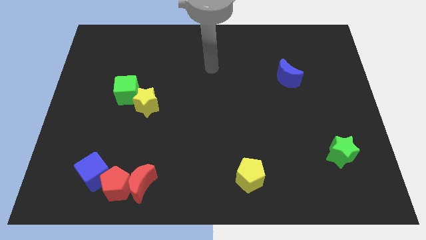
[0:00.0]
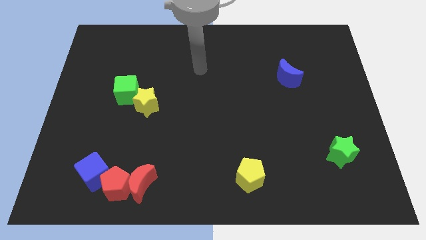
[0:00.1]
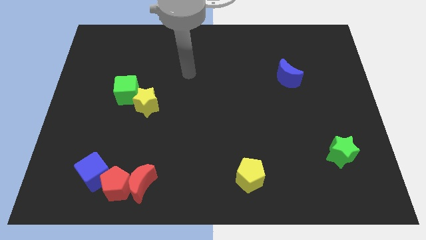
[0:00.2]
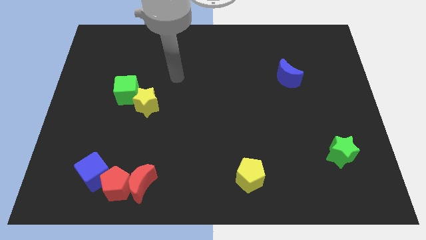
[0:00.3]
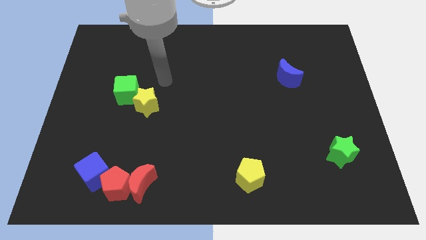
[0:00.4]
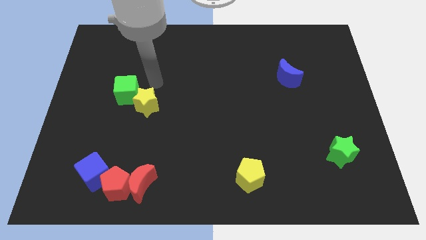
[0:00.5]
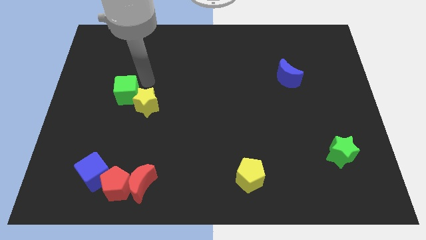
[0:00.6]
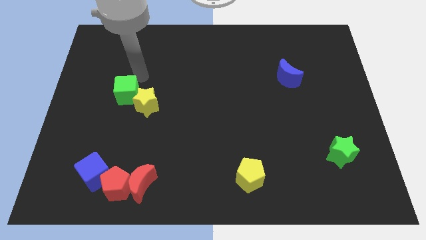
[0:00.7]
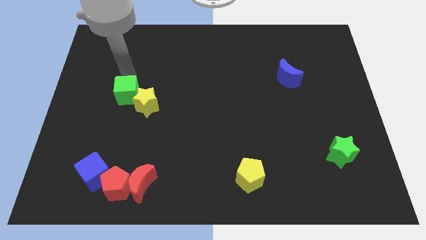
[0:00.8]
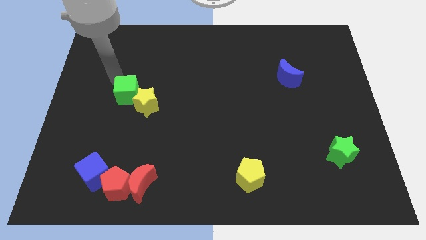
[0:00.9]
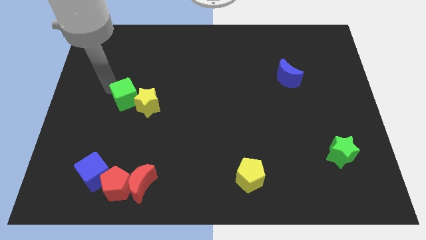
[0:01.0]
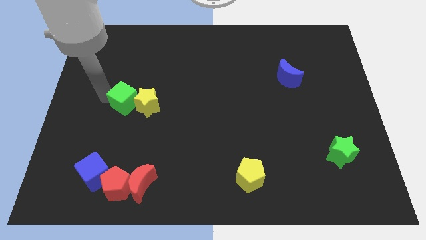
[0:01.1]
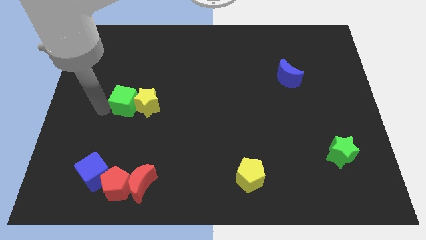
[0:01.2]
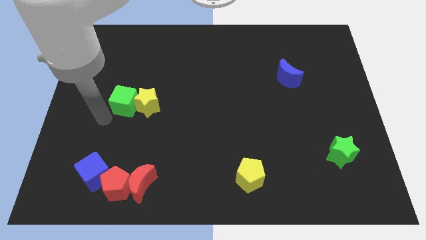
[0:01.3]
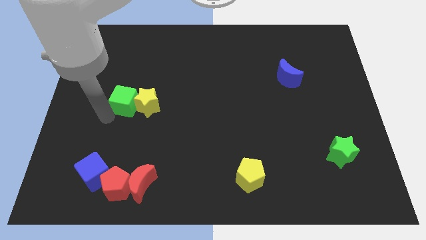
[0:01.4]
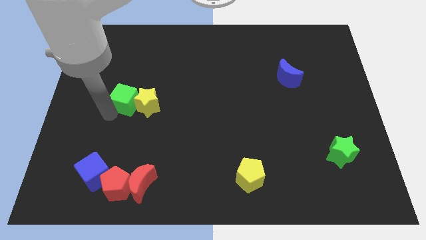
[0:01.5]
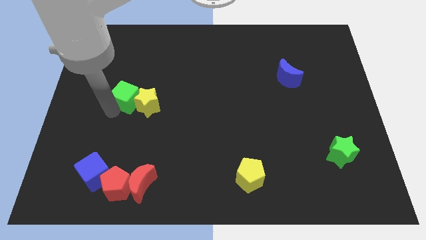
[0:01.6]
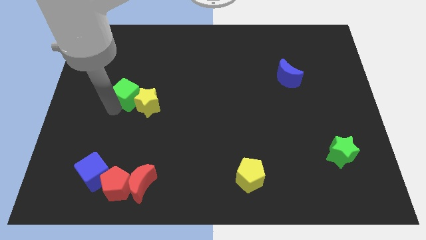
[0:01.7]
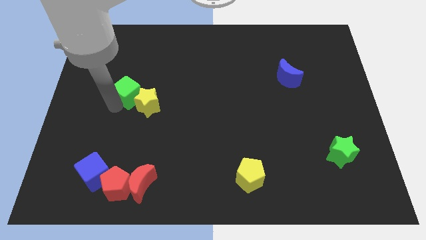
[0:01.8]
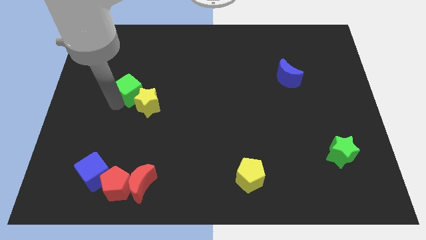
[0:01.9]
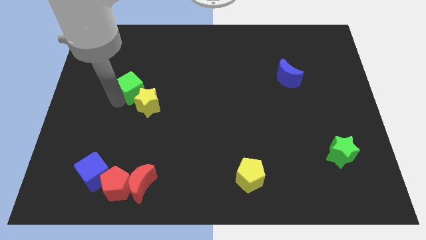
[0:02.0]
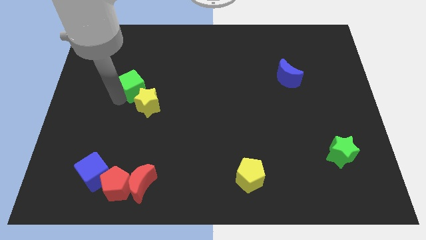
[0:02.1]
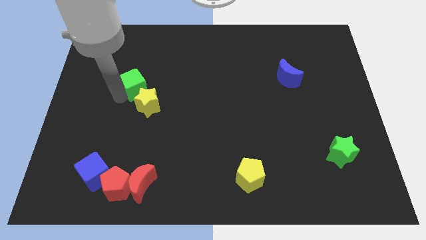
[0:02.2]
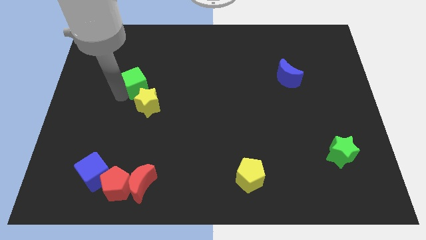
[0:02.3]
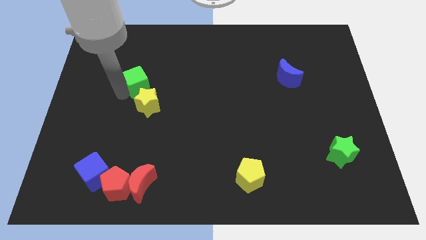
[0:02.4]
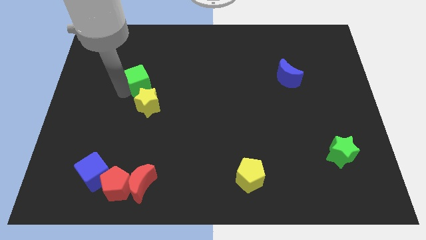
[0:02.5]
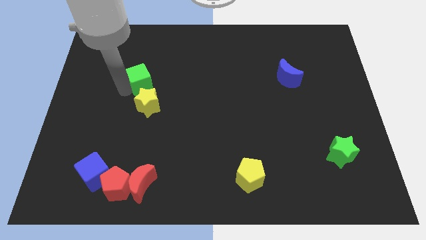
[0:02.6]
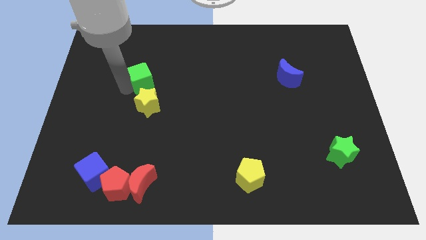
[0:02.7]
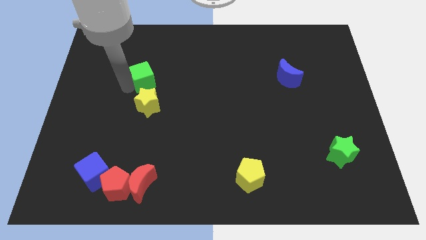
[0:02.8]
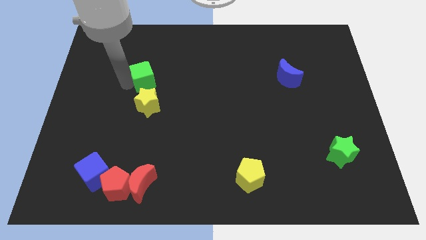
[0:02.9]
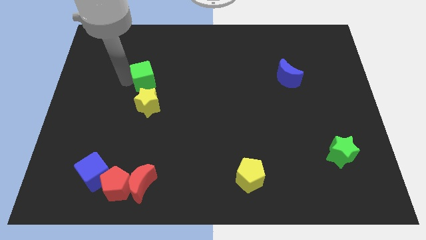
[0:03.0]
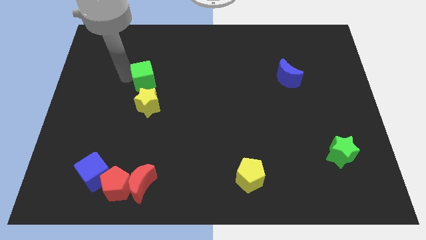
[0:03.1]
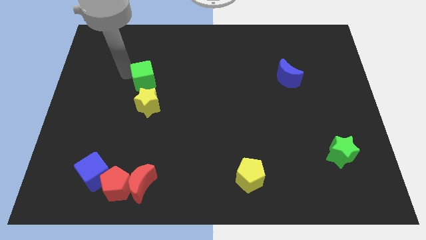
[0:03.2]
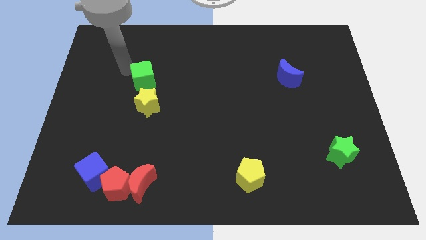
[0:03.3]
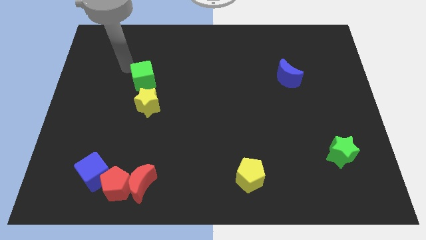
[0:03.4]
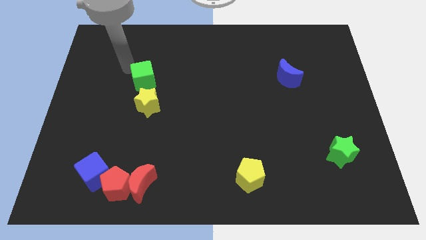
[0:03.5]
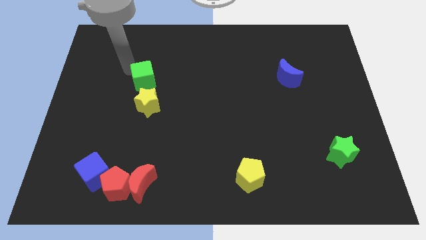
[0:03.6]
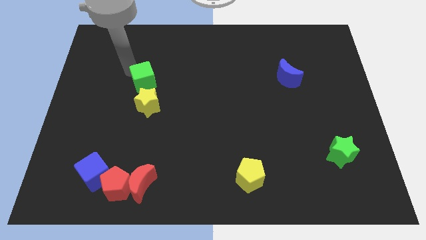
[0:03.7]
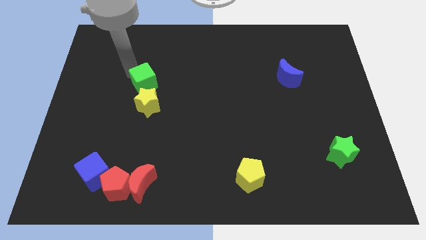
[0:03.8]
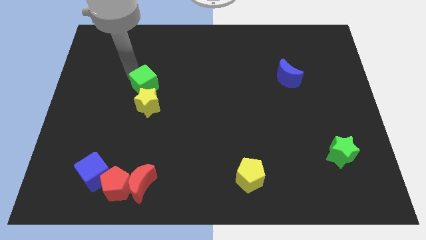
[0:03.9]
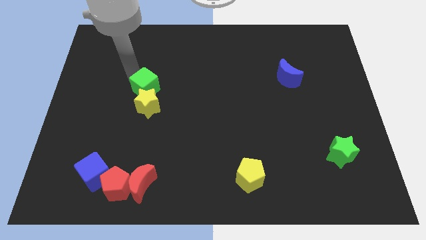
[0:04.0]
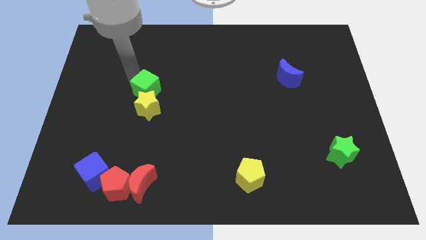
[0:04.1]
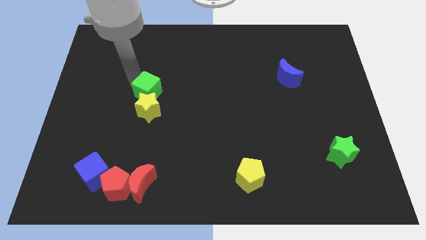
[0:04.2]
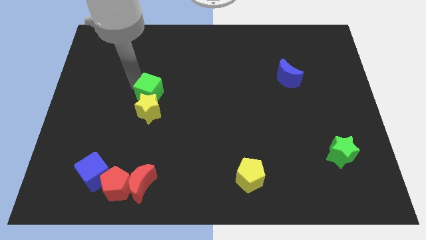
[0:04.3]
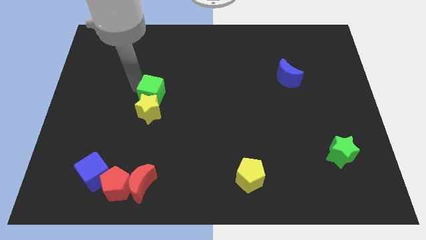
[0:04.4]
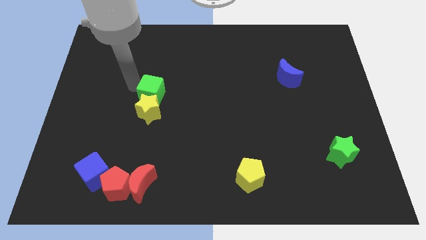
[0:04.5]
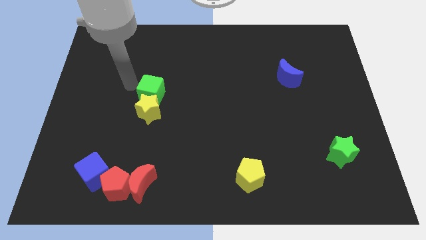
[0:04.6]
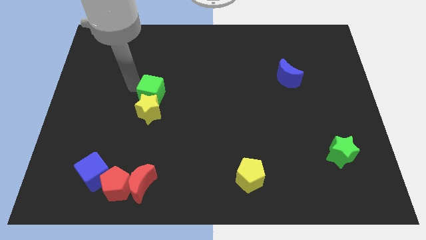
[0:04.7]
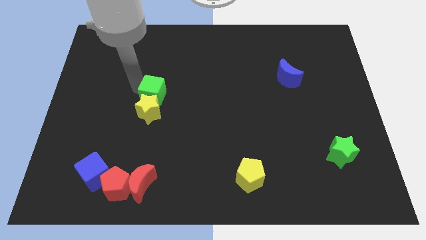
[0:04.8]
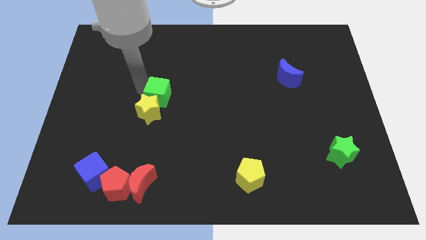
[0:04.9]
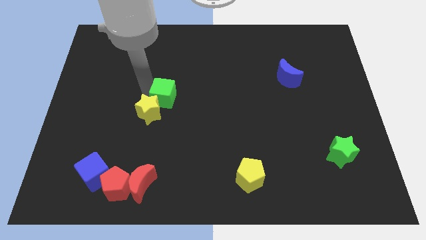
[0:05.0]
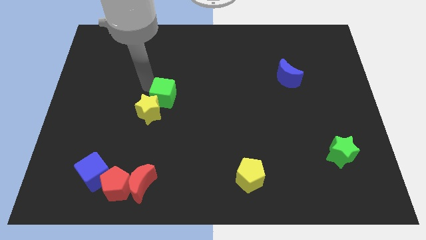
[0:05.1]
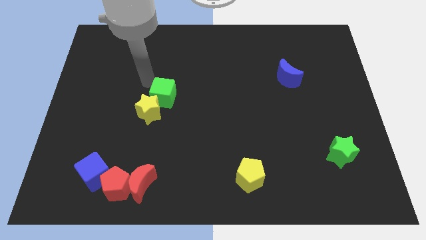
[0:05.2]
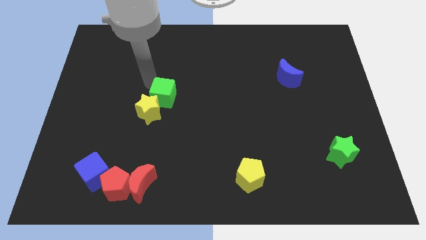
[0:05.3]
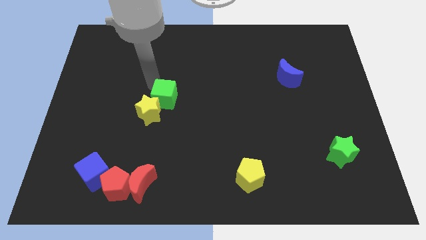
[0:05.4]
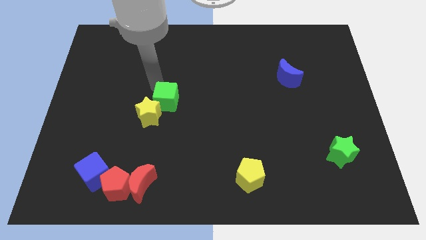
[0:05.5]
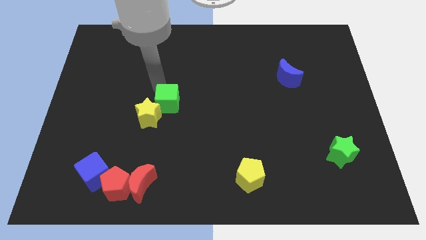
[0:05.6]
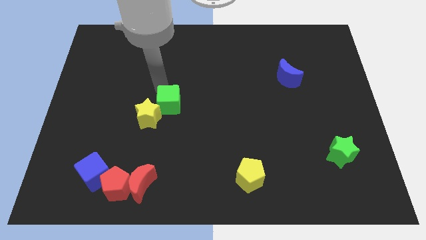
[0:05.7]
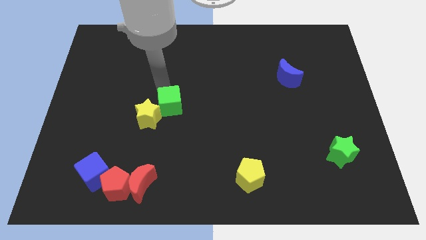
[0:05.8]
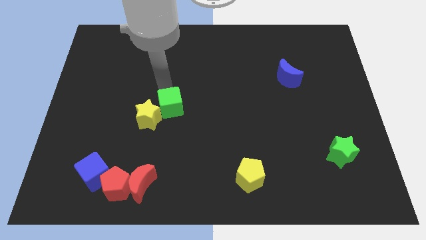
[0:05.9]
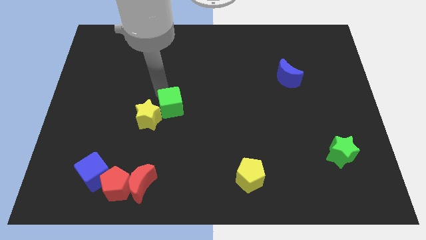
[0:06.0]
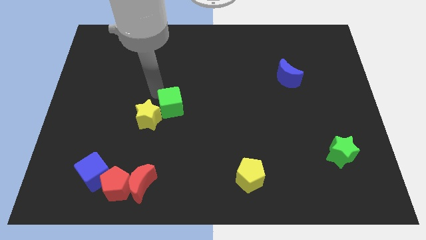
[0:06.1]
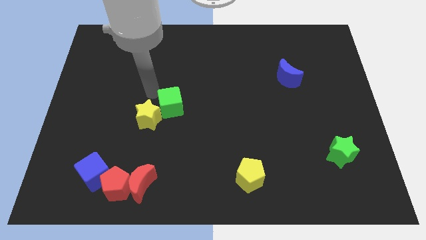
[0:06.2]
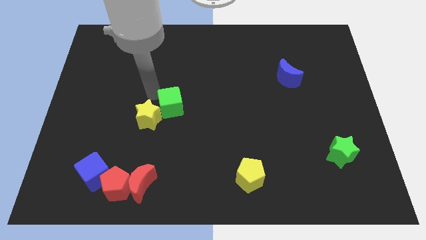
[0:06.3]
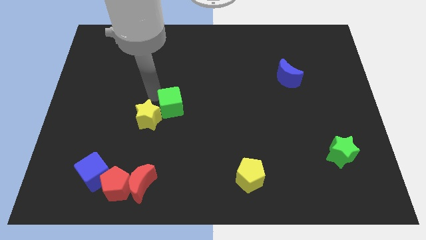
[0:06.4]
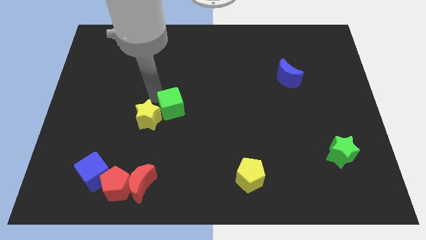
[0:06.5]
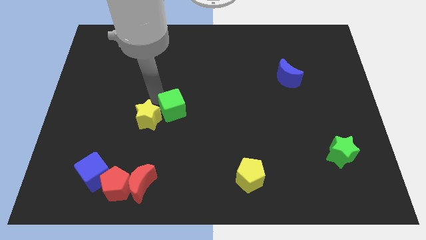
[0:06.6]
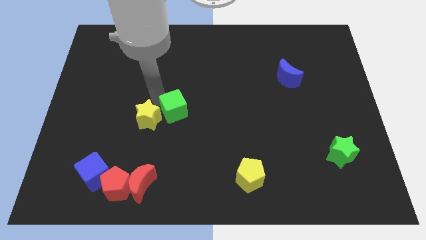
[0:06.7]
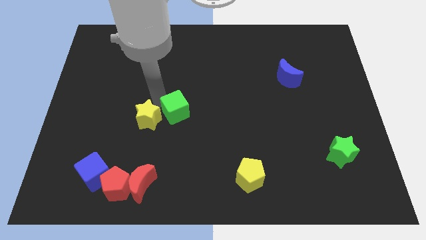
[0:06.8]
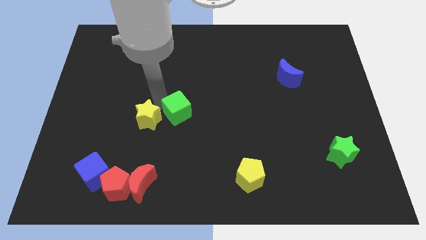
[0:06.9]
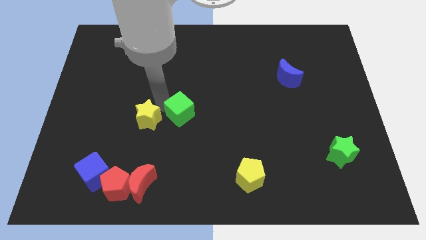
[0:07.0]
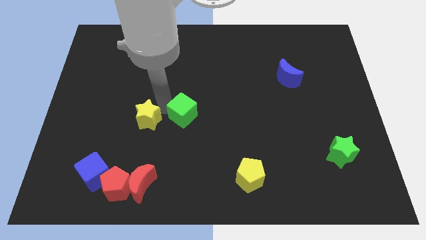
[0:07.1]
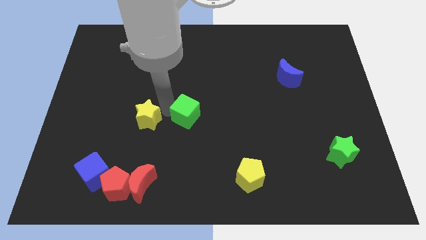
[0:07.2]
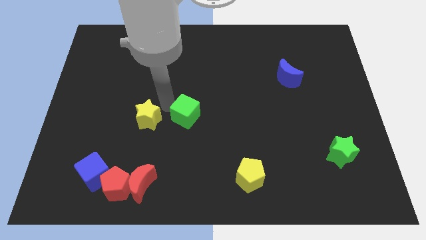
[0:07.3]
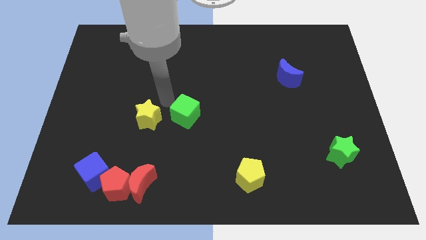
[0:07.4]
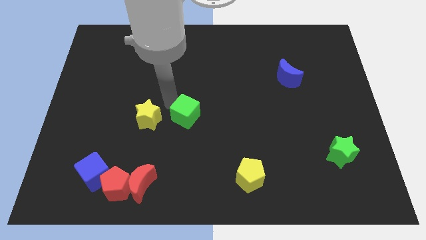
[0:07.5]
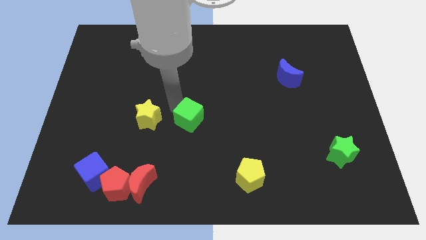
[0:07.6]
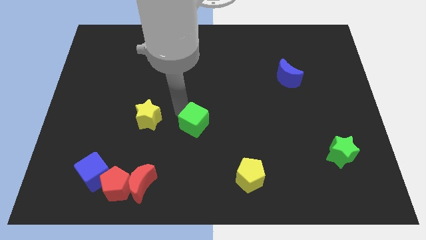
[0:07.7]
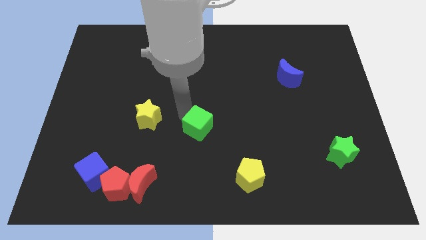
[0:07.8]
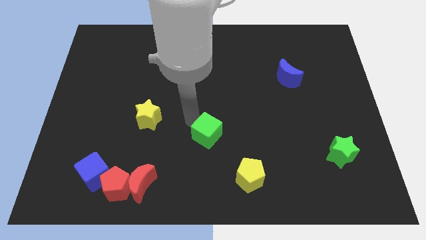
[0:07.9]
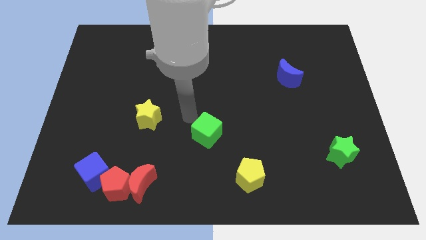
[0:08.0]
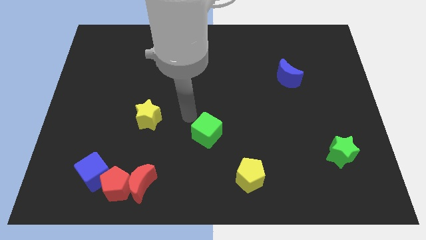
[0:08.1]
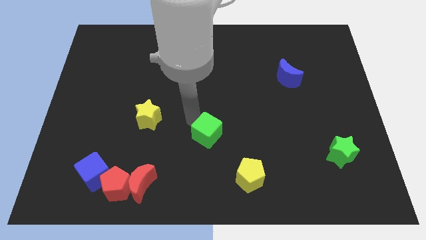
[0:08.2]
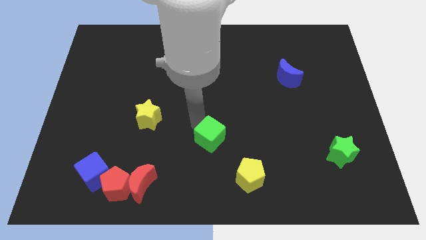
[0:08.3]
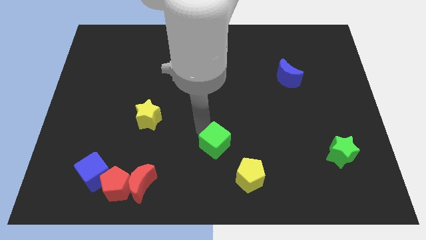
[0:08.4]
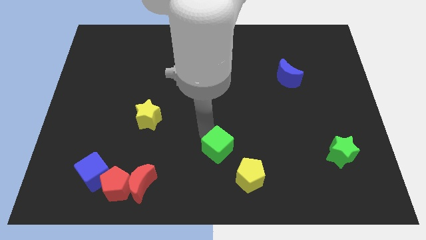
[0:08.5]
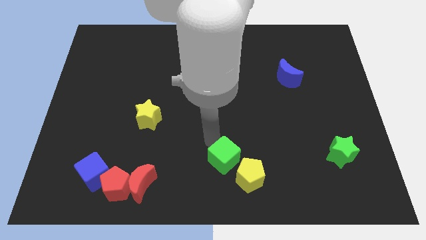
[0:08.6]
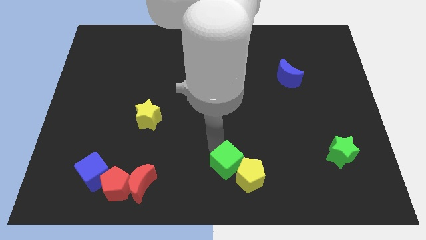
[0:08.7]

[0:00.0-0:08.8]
move the green cube next to the yellow pentagon
